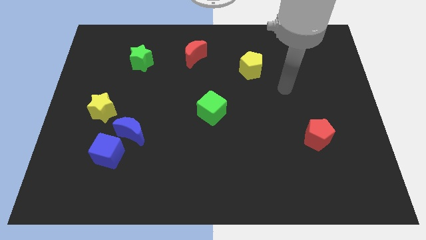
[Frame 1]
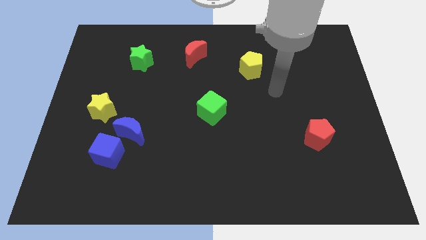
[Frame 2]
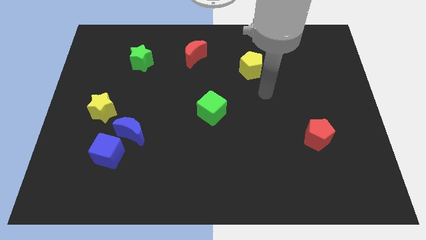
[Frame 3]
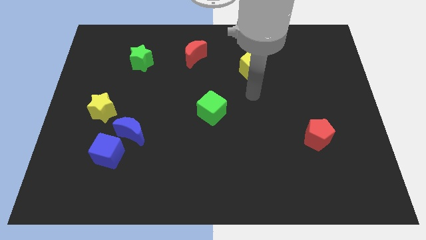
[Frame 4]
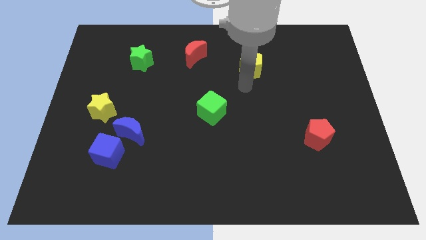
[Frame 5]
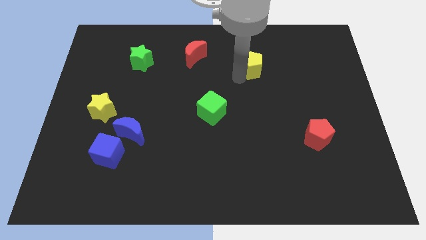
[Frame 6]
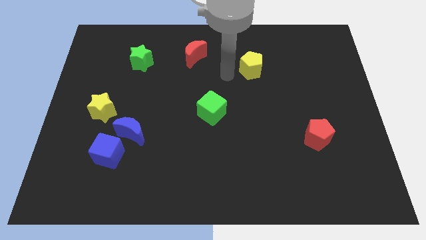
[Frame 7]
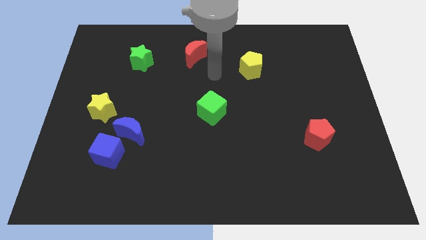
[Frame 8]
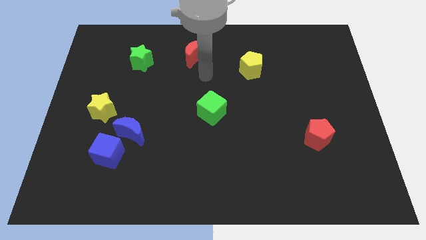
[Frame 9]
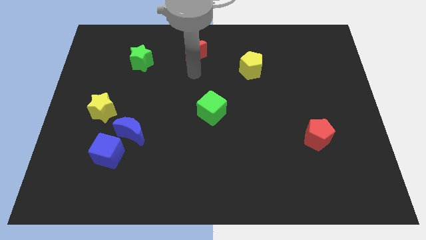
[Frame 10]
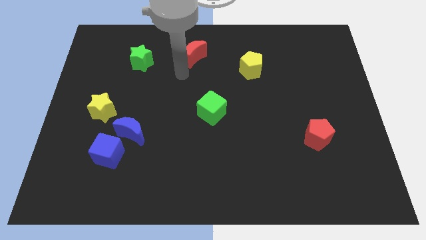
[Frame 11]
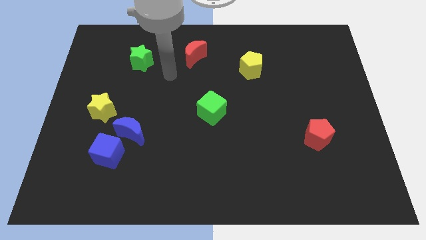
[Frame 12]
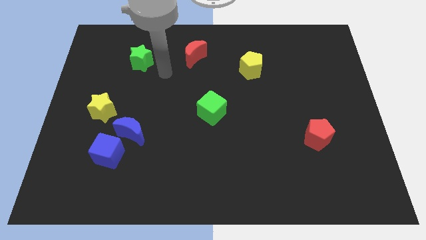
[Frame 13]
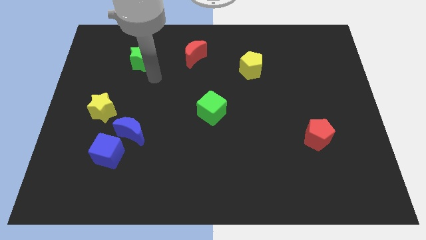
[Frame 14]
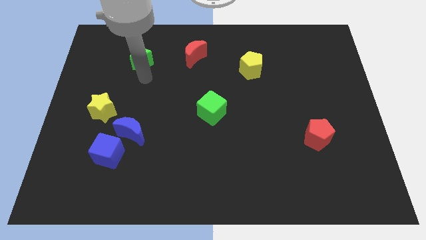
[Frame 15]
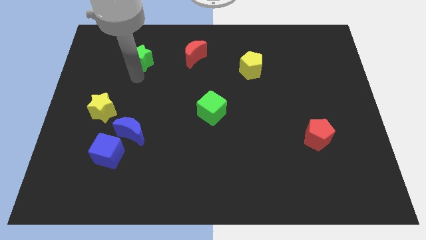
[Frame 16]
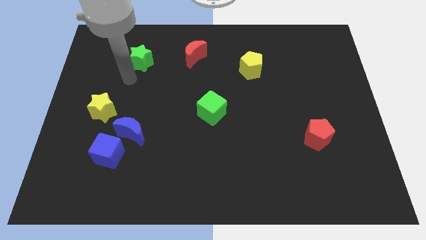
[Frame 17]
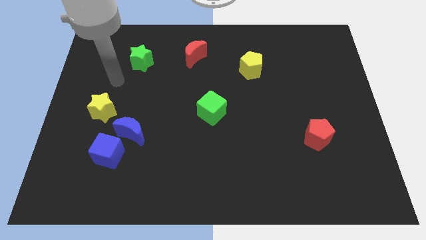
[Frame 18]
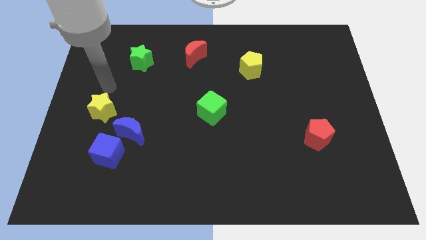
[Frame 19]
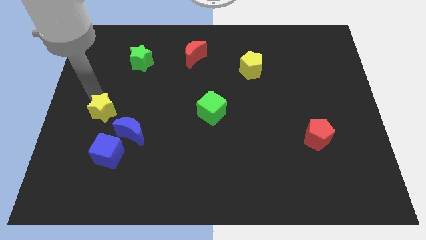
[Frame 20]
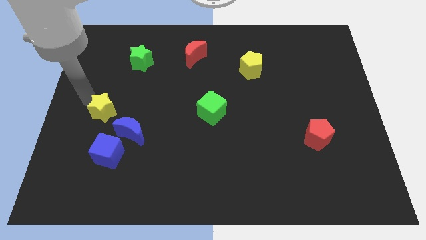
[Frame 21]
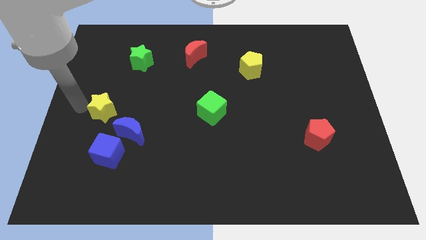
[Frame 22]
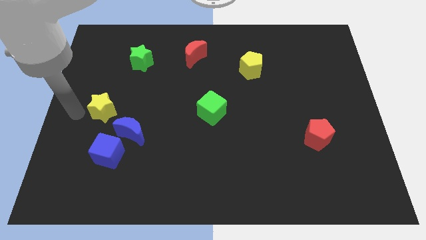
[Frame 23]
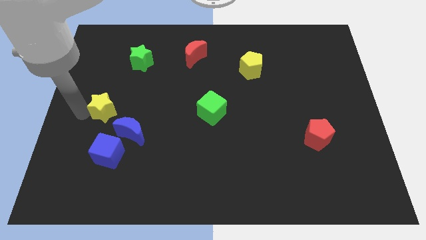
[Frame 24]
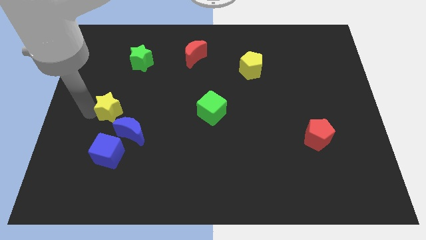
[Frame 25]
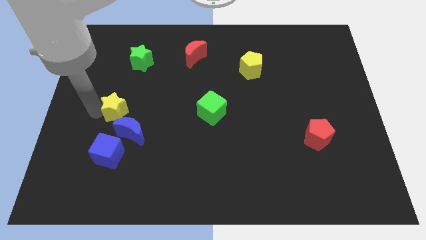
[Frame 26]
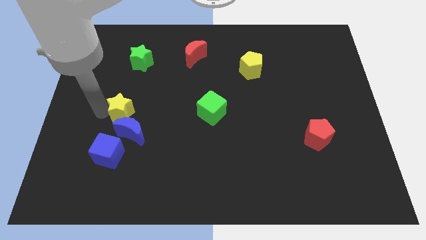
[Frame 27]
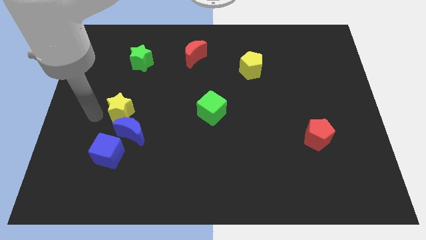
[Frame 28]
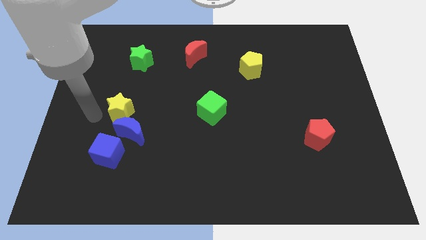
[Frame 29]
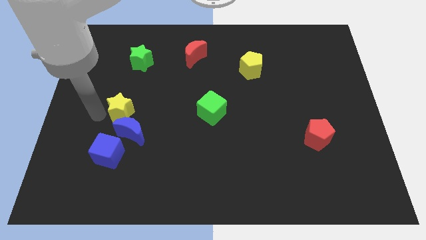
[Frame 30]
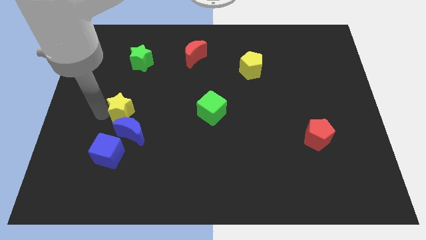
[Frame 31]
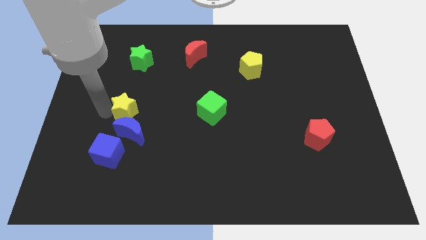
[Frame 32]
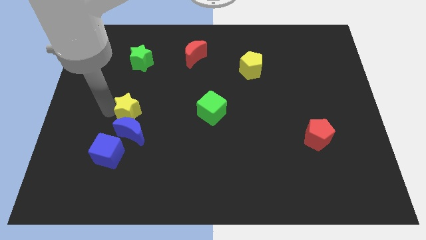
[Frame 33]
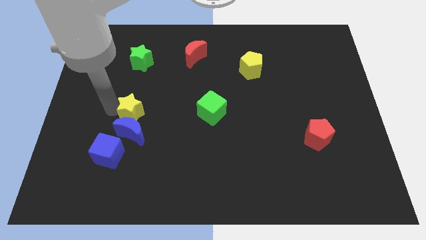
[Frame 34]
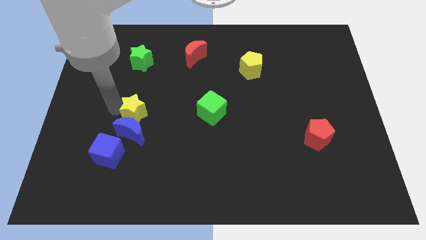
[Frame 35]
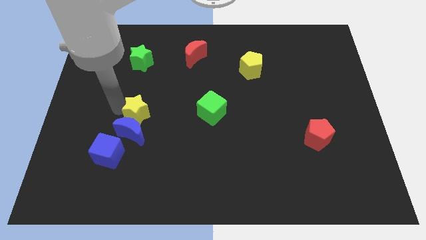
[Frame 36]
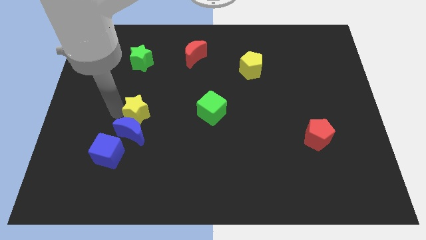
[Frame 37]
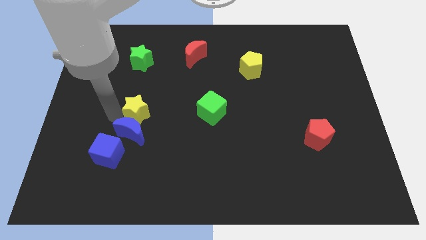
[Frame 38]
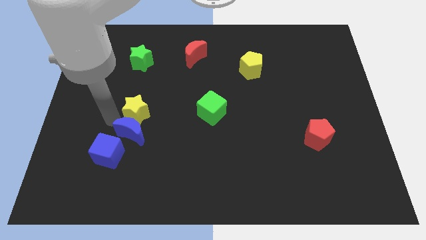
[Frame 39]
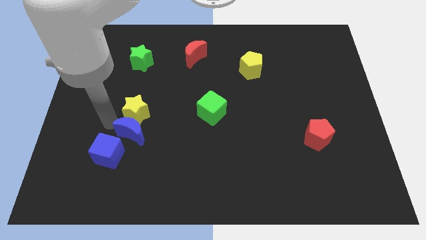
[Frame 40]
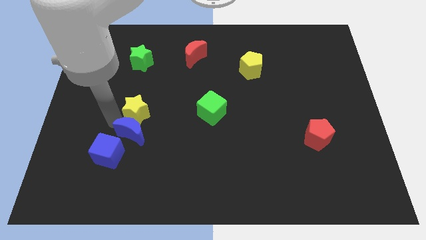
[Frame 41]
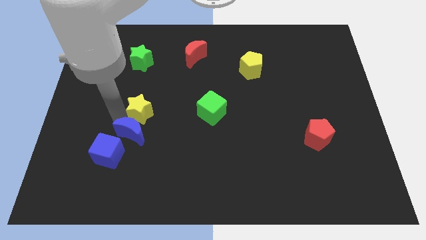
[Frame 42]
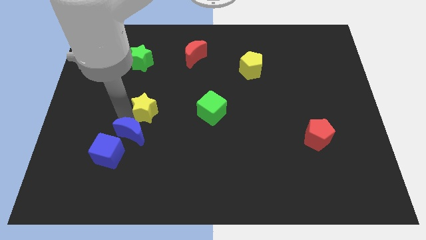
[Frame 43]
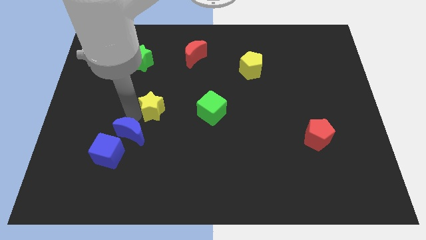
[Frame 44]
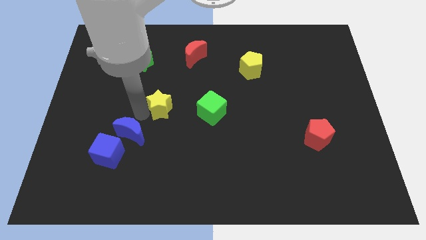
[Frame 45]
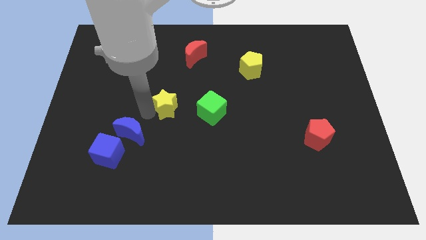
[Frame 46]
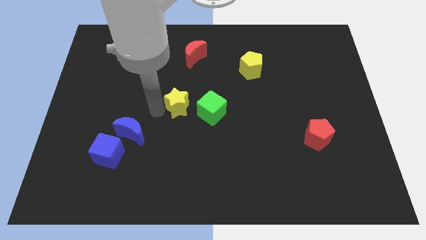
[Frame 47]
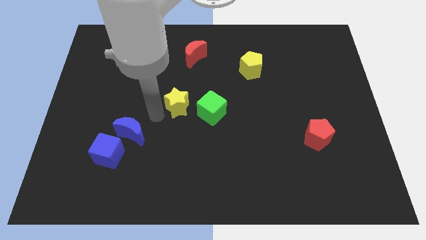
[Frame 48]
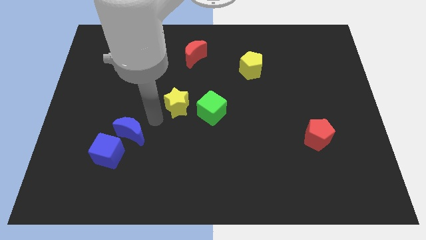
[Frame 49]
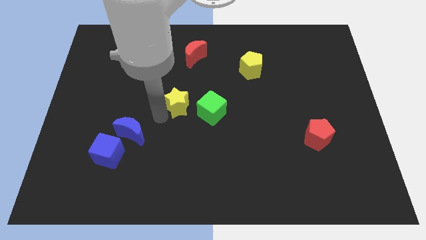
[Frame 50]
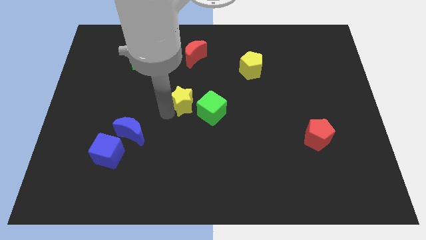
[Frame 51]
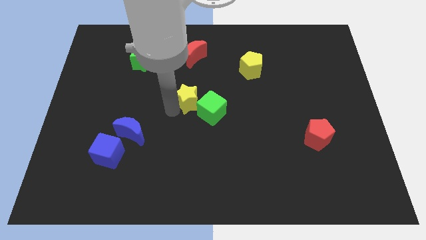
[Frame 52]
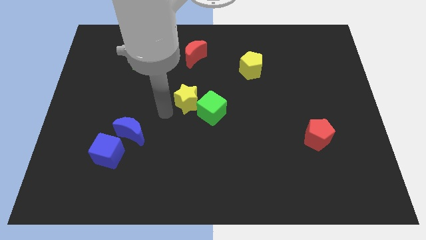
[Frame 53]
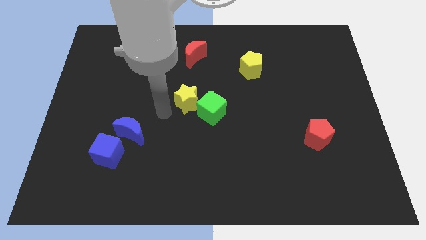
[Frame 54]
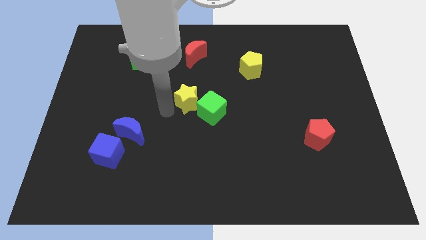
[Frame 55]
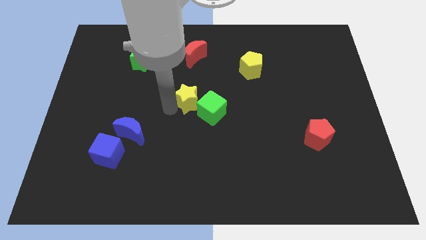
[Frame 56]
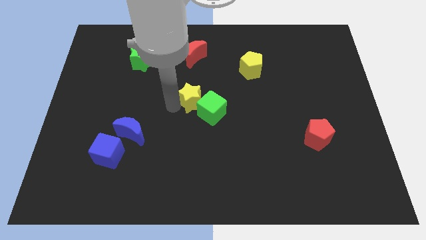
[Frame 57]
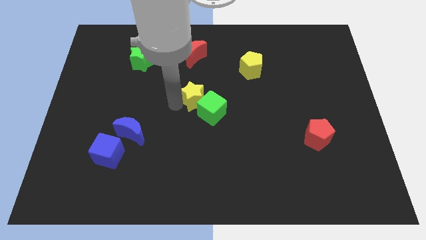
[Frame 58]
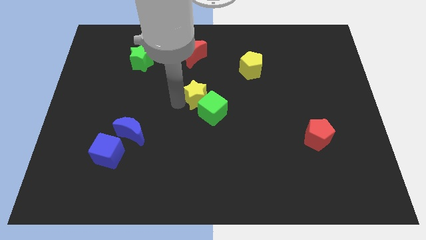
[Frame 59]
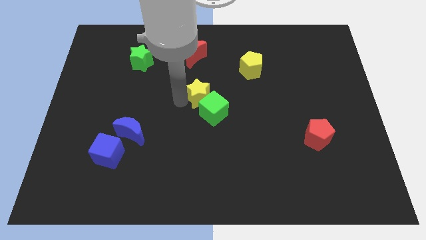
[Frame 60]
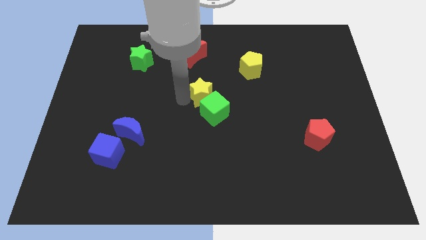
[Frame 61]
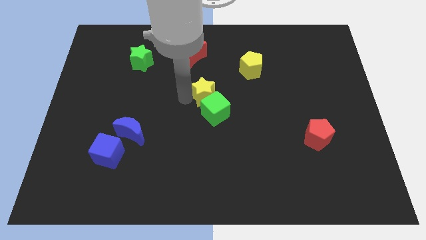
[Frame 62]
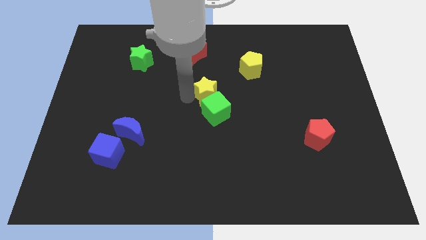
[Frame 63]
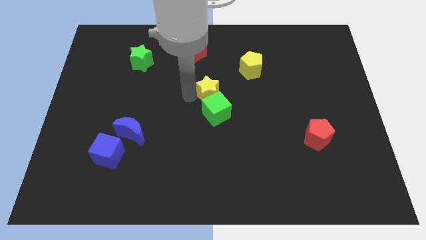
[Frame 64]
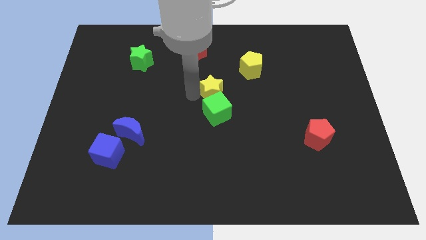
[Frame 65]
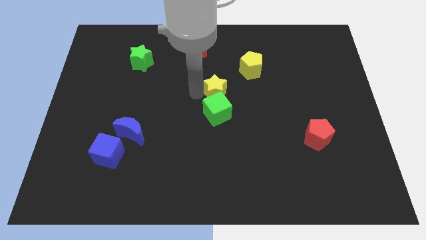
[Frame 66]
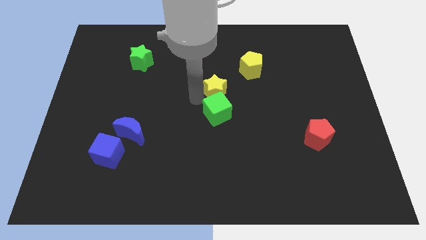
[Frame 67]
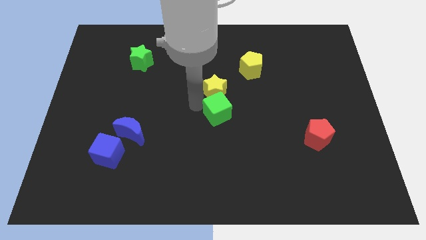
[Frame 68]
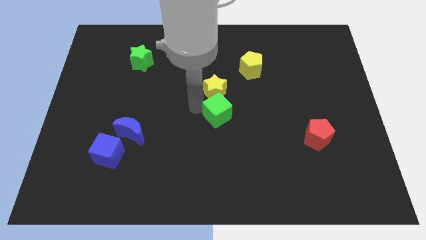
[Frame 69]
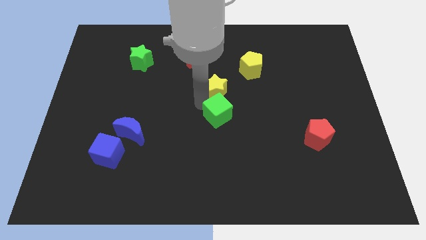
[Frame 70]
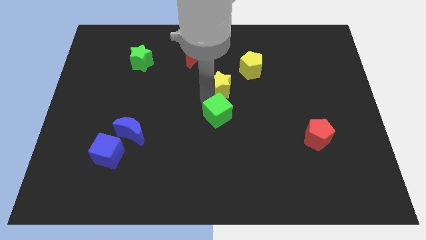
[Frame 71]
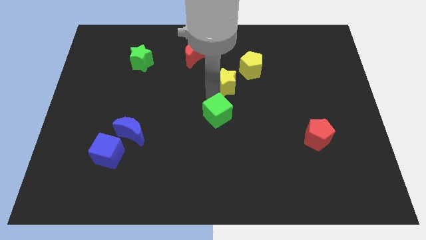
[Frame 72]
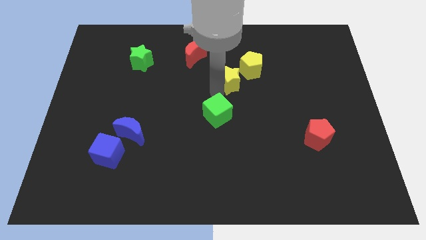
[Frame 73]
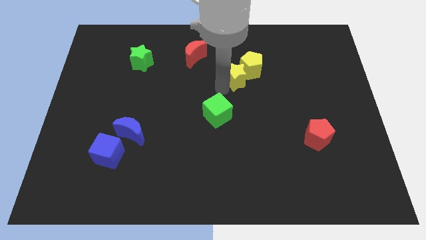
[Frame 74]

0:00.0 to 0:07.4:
put the yellow star to the yellow pentagon
